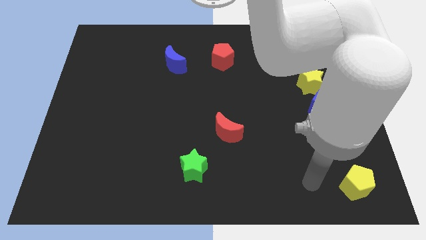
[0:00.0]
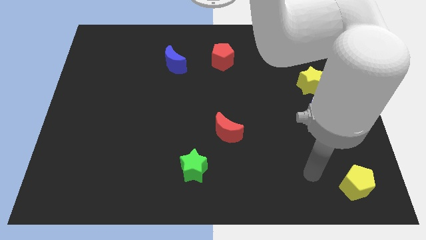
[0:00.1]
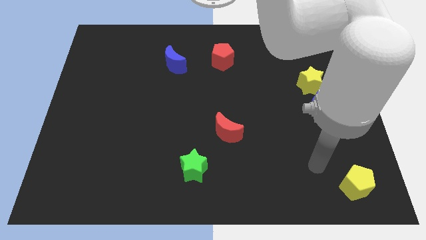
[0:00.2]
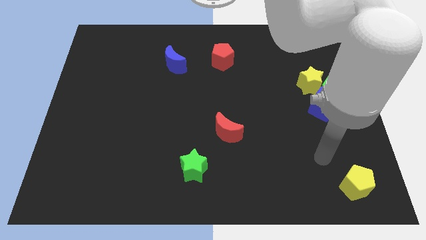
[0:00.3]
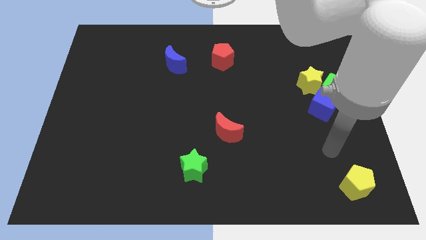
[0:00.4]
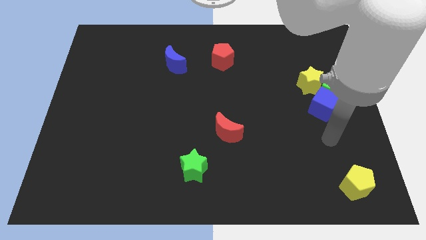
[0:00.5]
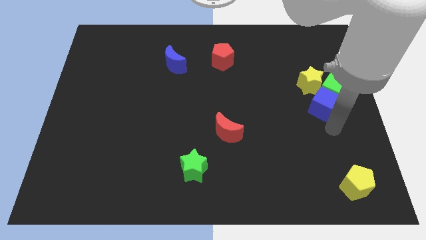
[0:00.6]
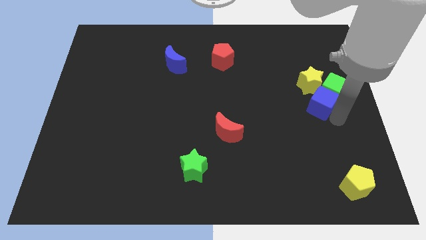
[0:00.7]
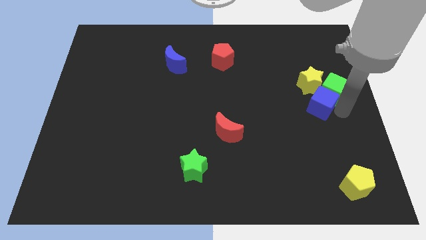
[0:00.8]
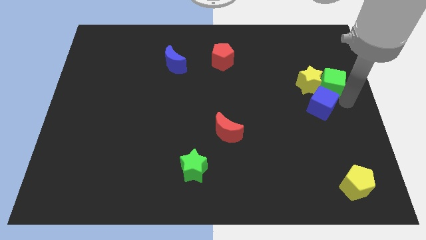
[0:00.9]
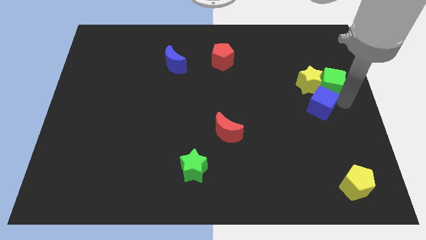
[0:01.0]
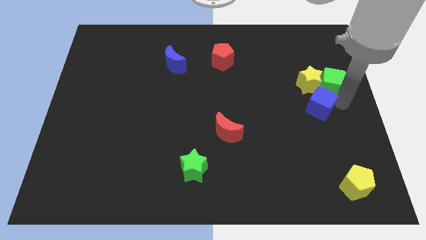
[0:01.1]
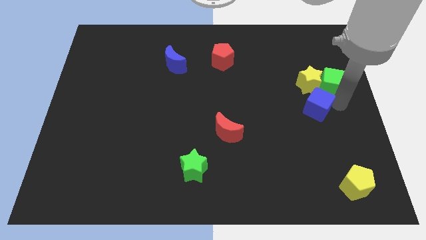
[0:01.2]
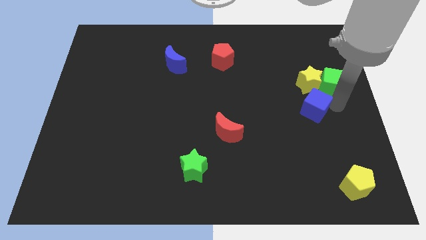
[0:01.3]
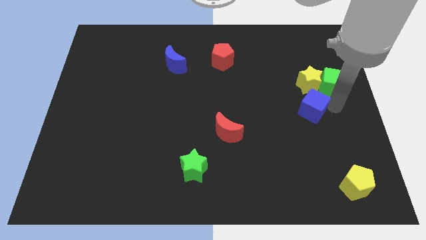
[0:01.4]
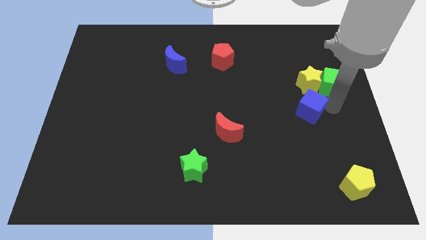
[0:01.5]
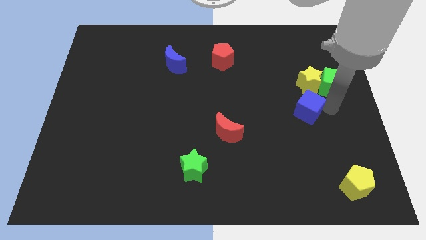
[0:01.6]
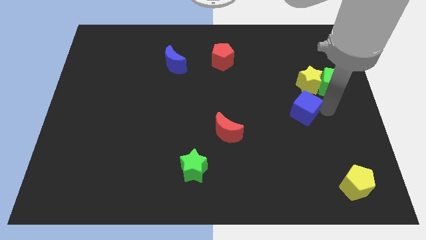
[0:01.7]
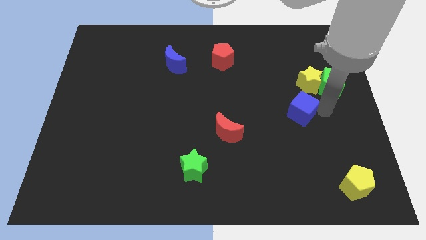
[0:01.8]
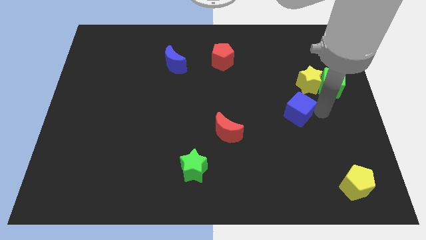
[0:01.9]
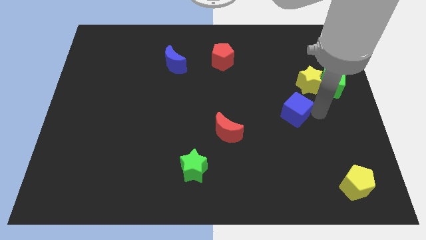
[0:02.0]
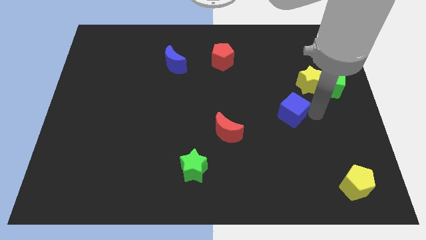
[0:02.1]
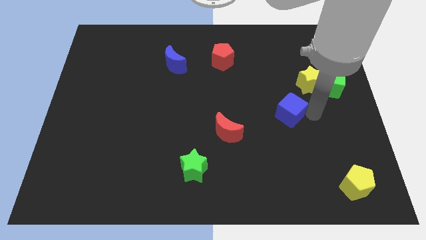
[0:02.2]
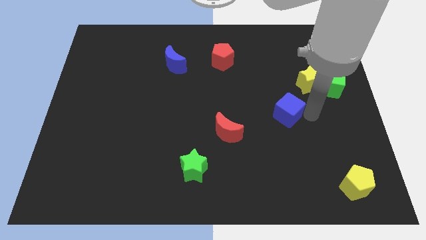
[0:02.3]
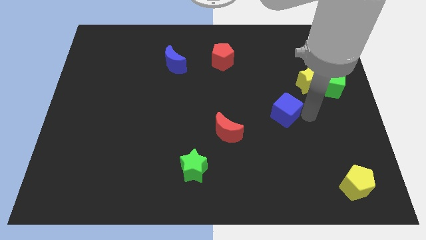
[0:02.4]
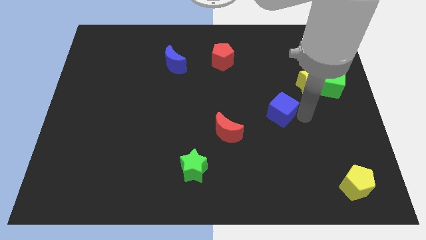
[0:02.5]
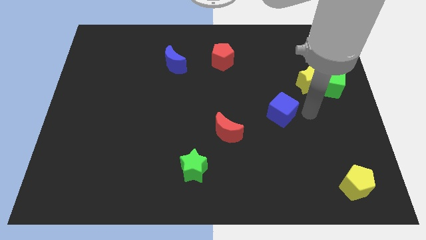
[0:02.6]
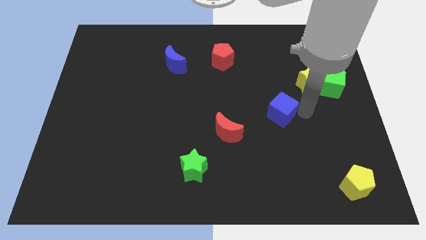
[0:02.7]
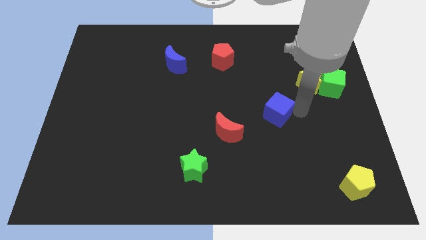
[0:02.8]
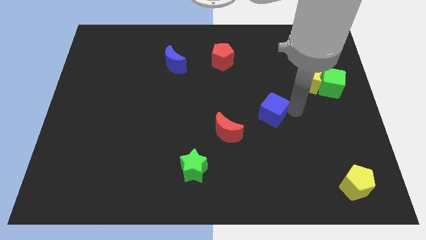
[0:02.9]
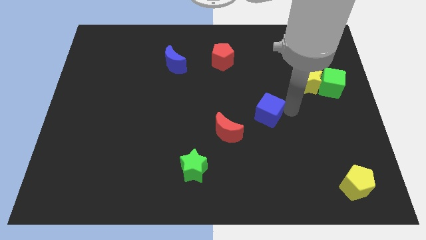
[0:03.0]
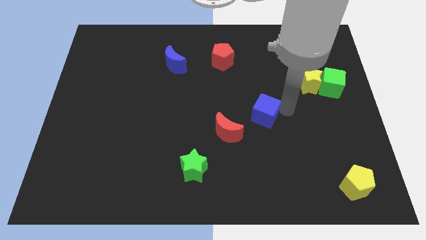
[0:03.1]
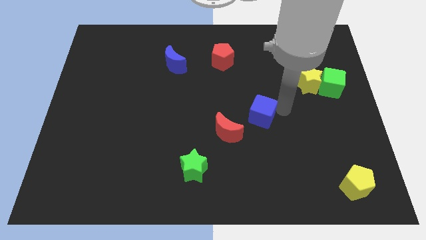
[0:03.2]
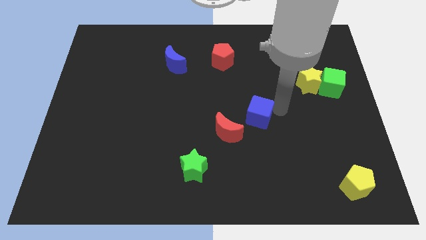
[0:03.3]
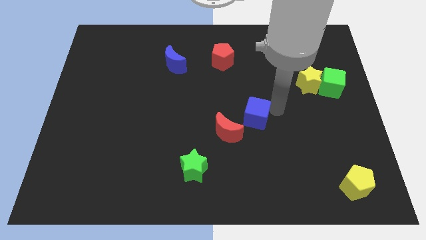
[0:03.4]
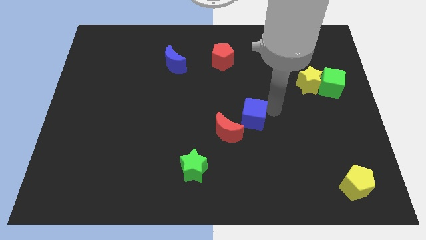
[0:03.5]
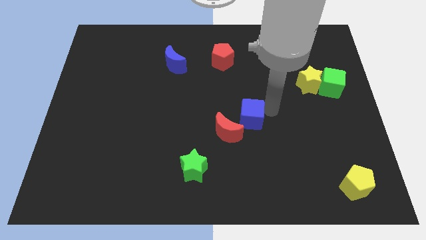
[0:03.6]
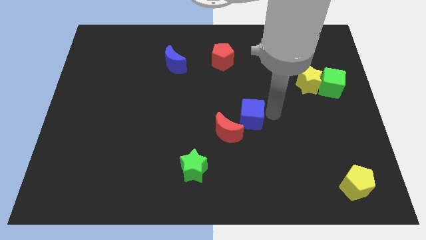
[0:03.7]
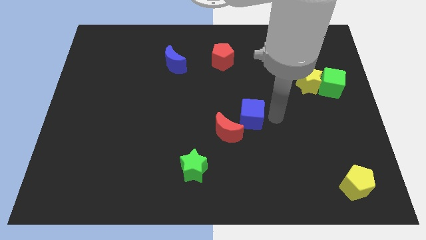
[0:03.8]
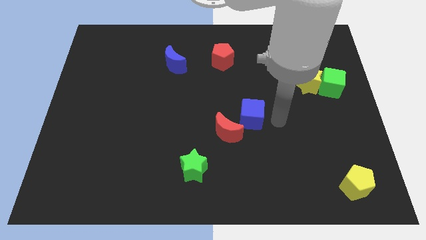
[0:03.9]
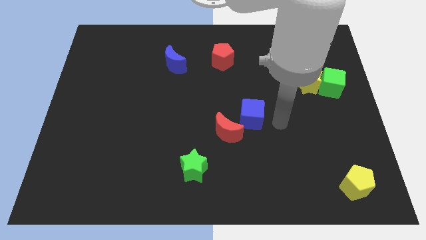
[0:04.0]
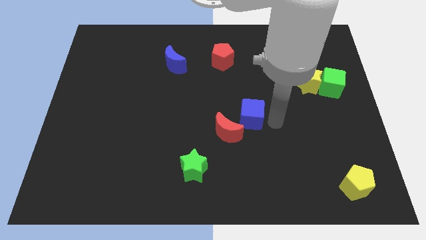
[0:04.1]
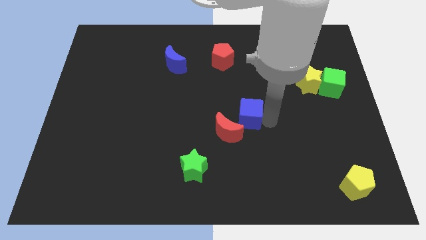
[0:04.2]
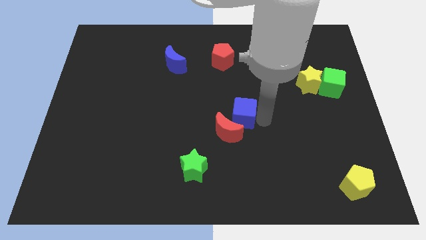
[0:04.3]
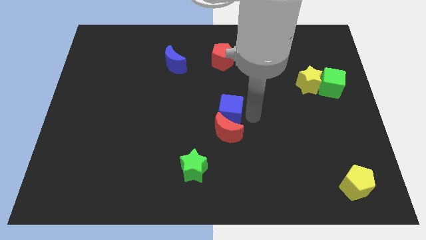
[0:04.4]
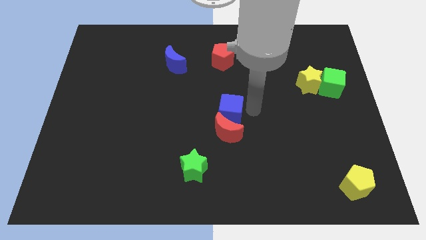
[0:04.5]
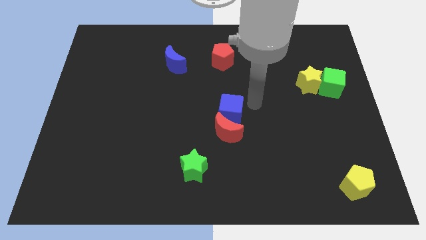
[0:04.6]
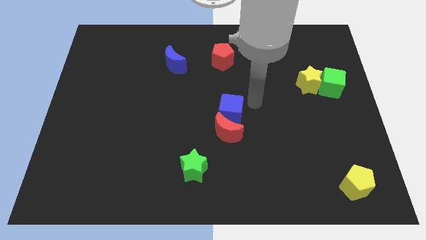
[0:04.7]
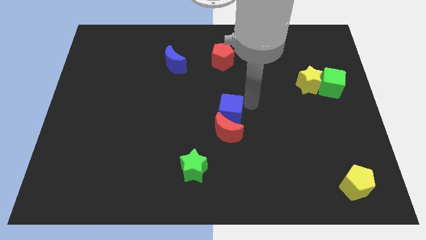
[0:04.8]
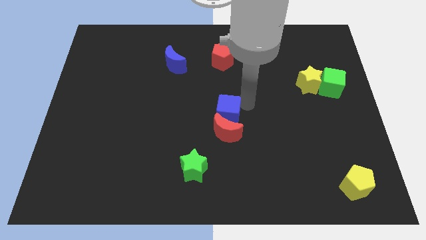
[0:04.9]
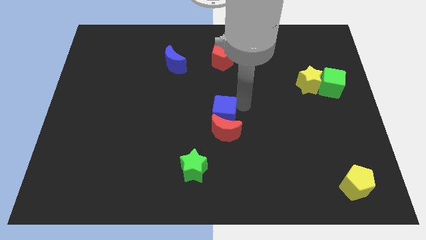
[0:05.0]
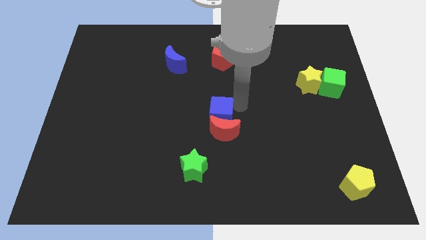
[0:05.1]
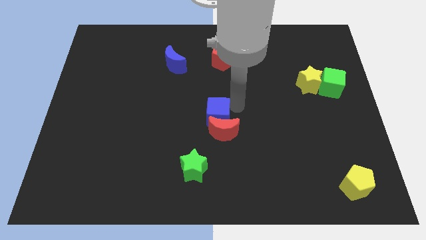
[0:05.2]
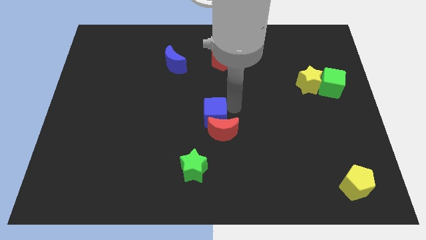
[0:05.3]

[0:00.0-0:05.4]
push the blue cube to the top of the green star

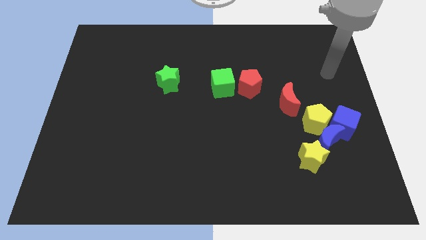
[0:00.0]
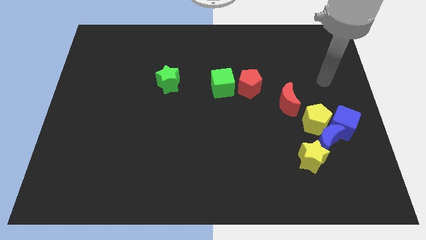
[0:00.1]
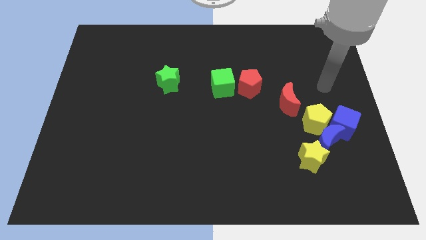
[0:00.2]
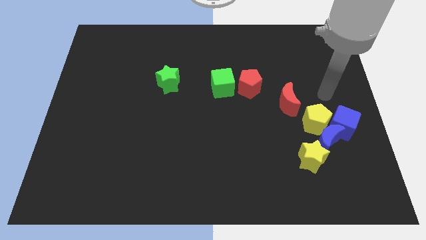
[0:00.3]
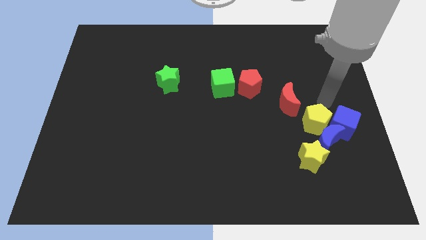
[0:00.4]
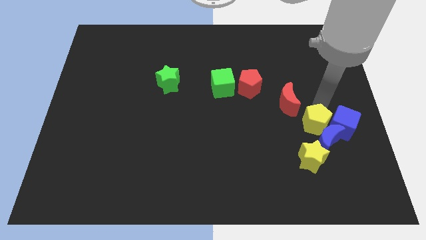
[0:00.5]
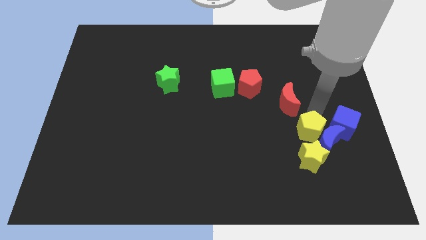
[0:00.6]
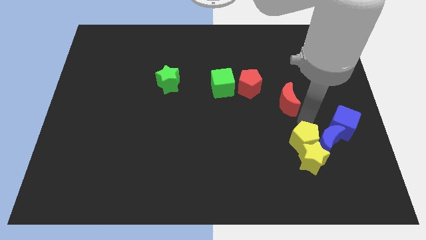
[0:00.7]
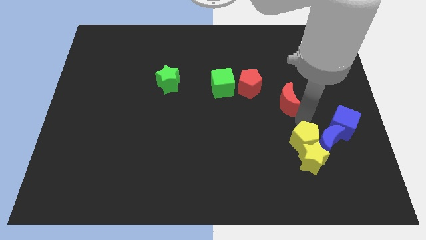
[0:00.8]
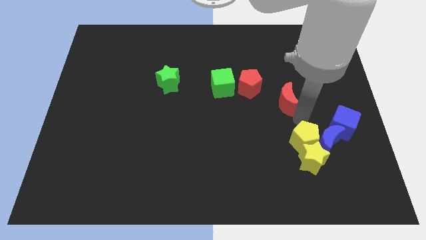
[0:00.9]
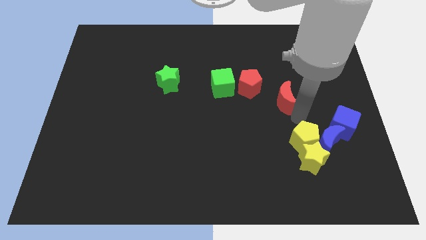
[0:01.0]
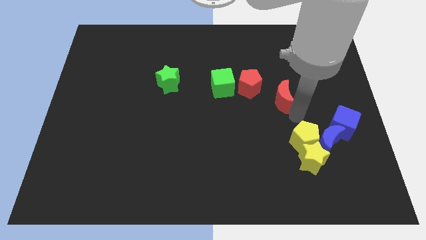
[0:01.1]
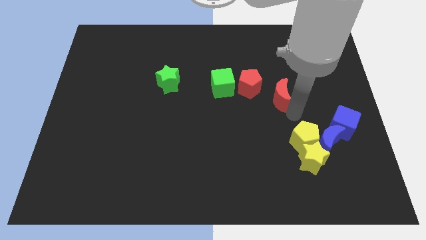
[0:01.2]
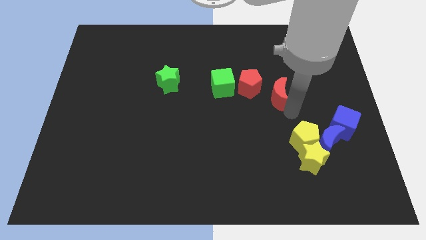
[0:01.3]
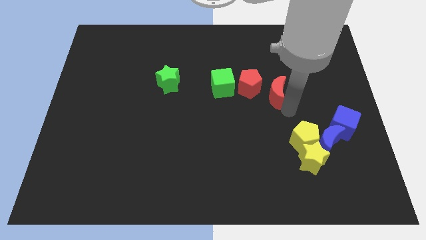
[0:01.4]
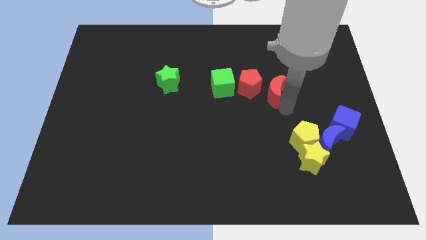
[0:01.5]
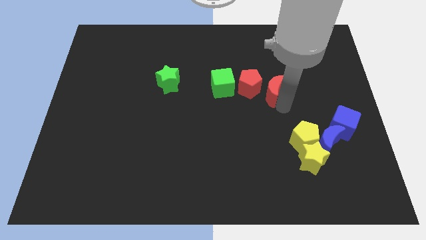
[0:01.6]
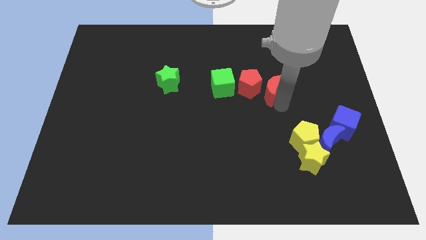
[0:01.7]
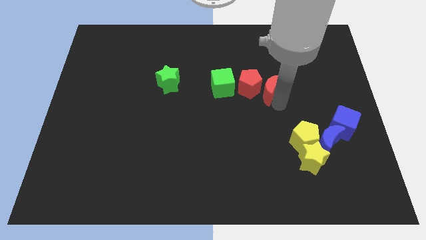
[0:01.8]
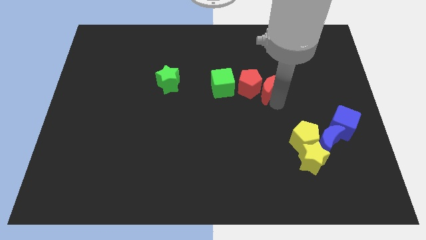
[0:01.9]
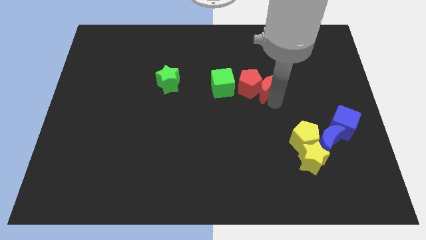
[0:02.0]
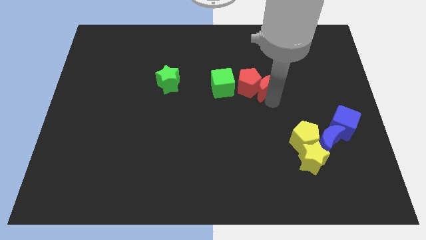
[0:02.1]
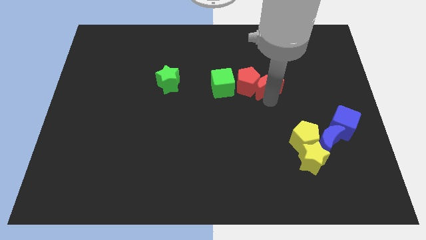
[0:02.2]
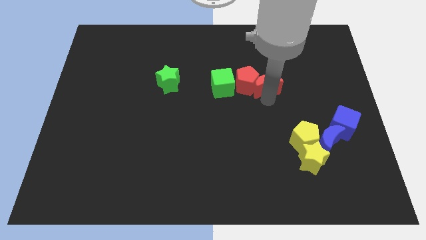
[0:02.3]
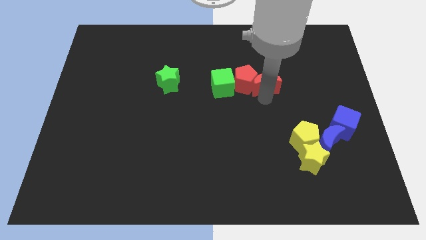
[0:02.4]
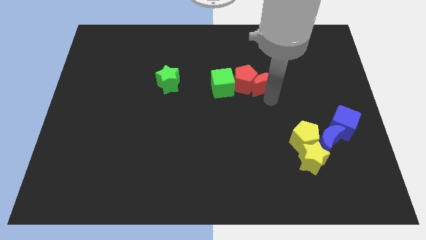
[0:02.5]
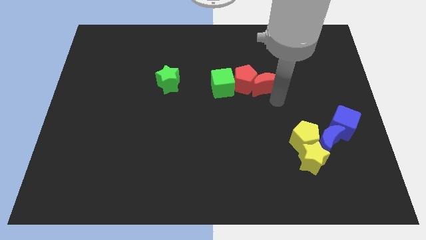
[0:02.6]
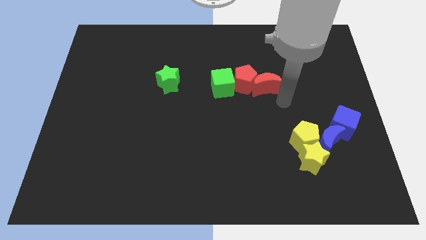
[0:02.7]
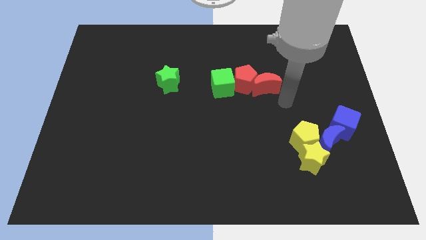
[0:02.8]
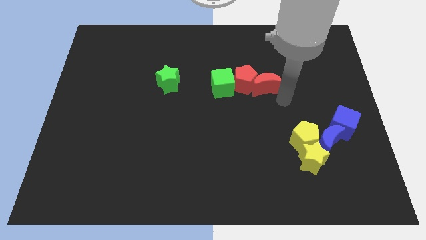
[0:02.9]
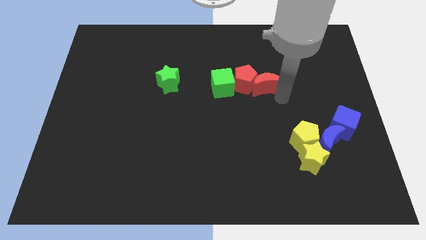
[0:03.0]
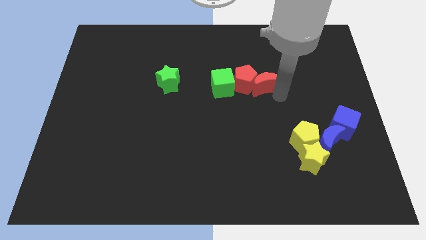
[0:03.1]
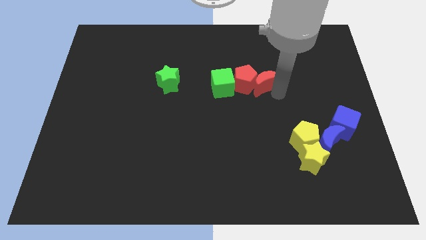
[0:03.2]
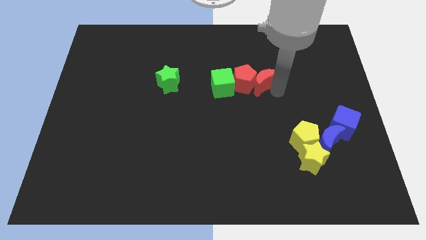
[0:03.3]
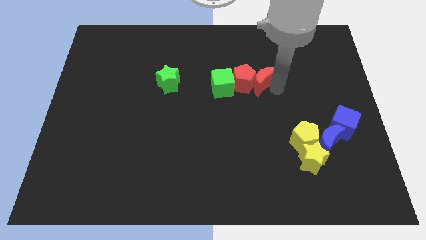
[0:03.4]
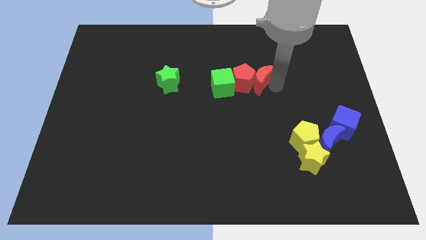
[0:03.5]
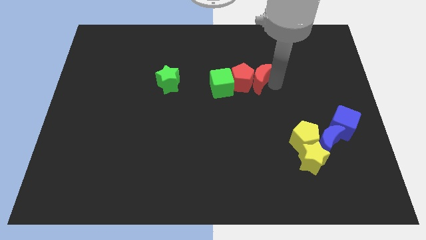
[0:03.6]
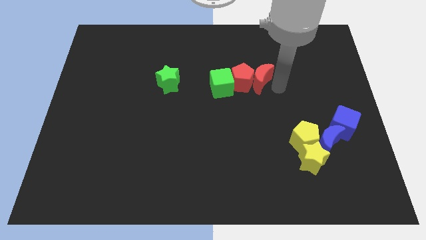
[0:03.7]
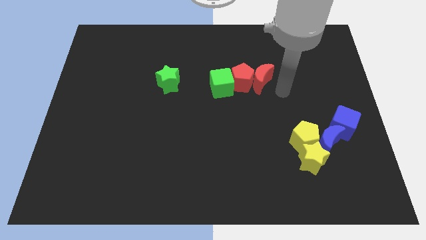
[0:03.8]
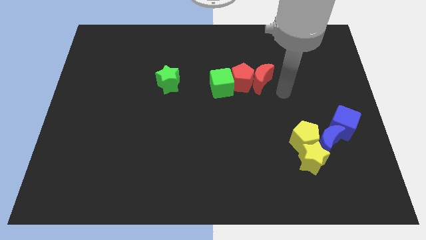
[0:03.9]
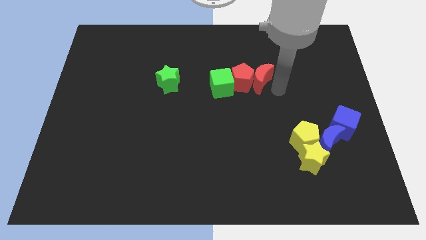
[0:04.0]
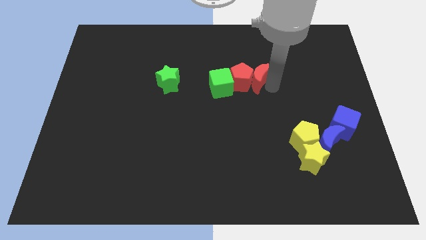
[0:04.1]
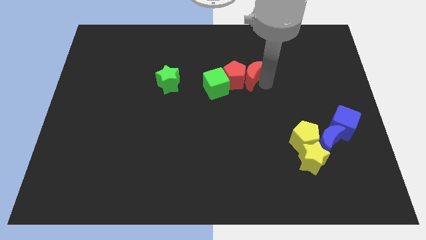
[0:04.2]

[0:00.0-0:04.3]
push the red moon to the top right side of the green cube
